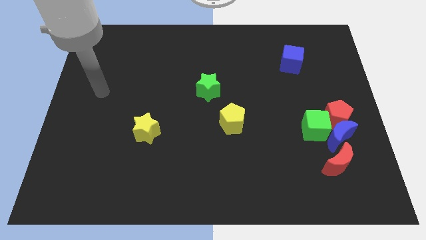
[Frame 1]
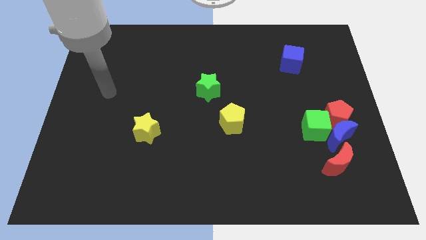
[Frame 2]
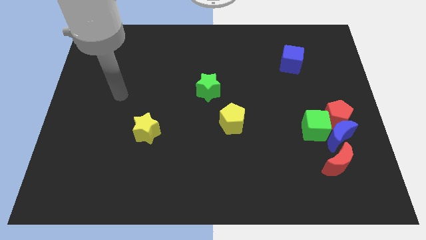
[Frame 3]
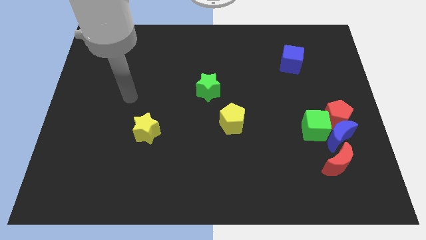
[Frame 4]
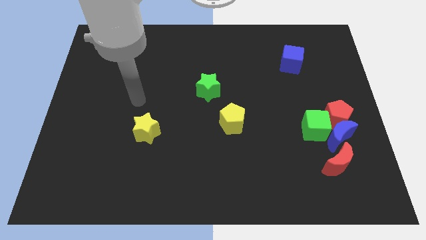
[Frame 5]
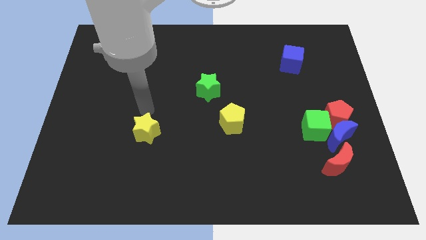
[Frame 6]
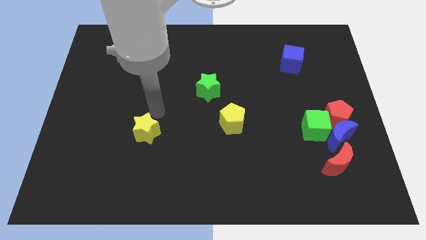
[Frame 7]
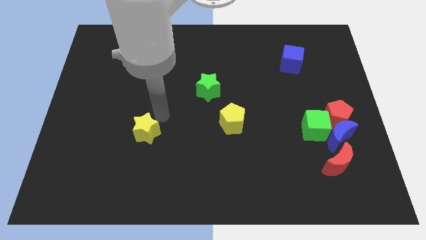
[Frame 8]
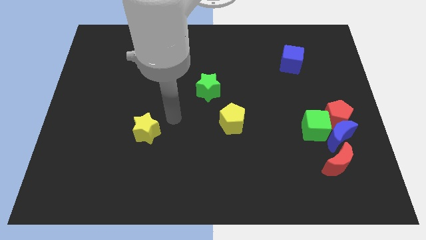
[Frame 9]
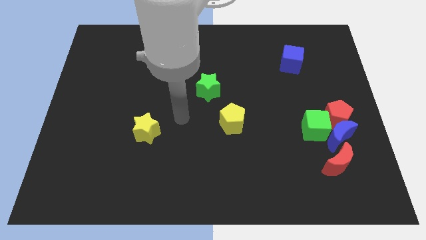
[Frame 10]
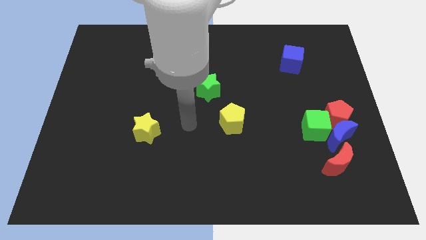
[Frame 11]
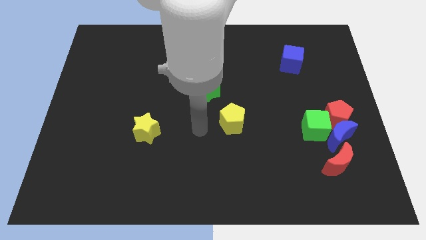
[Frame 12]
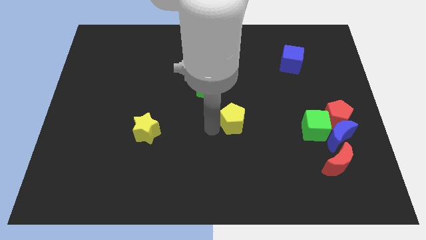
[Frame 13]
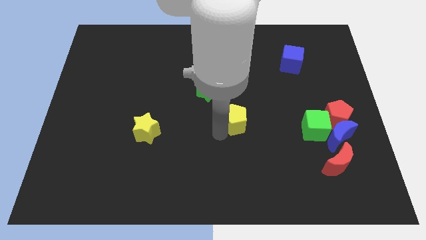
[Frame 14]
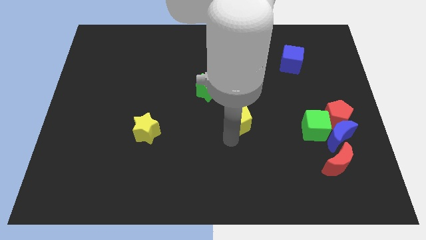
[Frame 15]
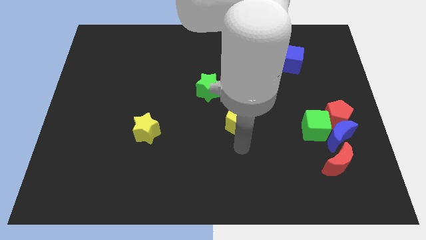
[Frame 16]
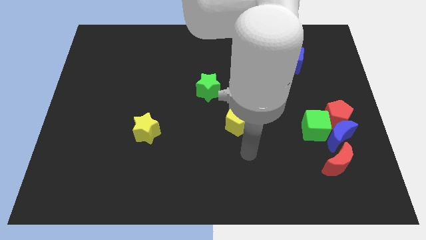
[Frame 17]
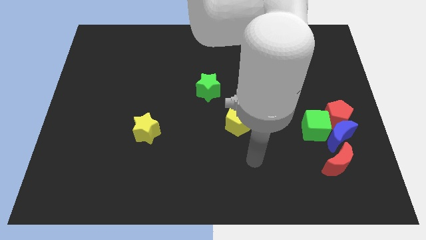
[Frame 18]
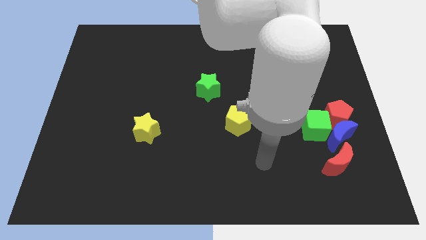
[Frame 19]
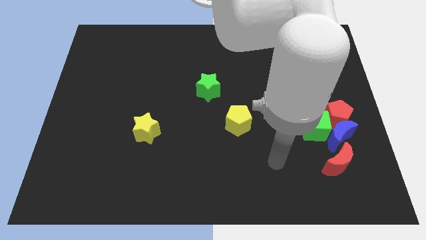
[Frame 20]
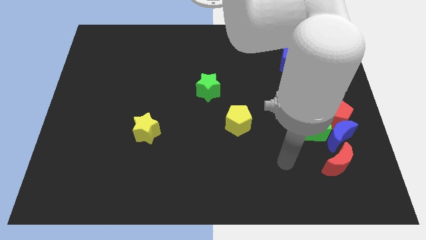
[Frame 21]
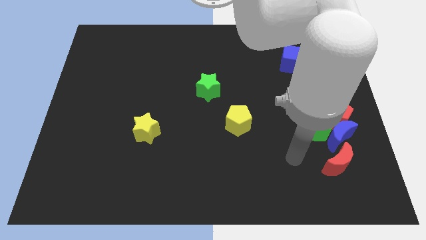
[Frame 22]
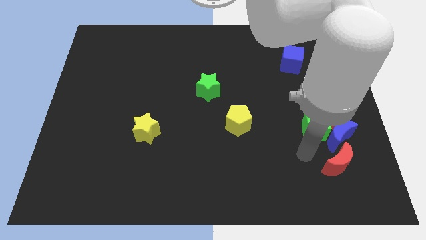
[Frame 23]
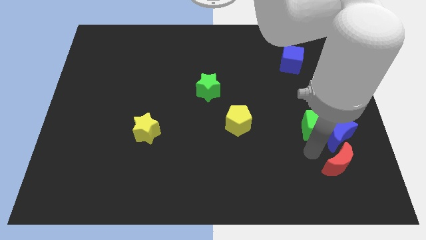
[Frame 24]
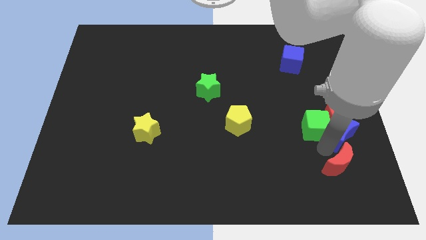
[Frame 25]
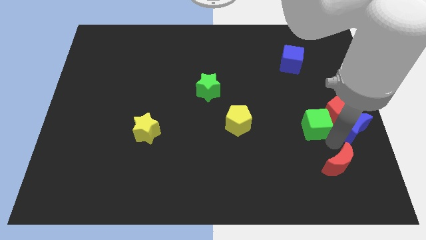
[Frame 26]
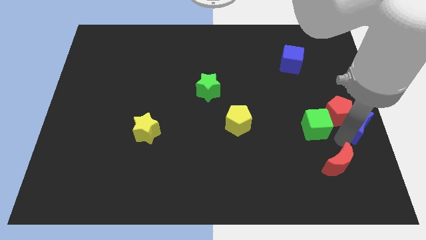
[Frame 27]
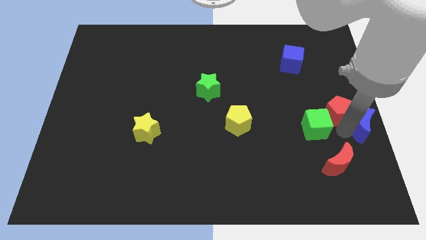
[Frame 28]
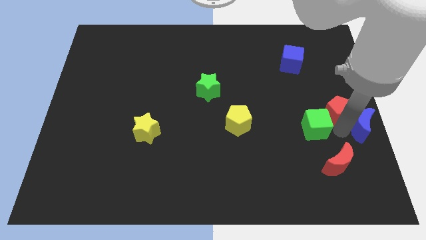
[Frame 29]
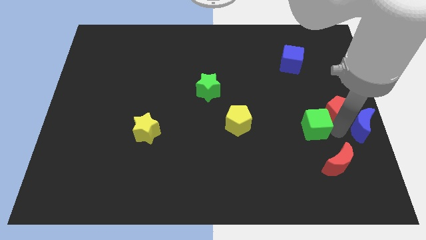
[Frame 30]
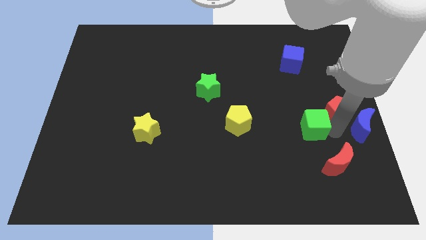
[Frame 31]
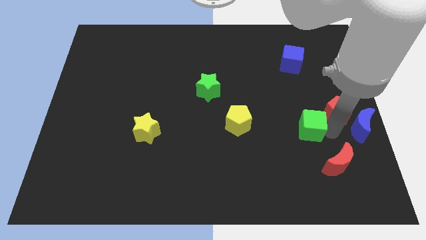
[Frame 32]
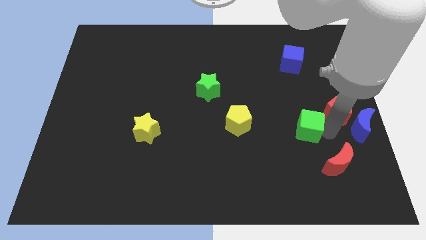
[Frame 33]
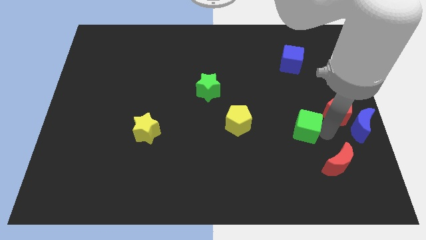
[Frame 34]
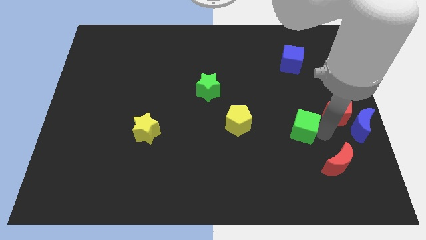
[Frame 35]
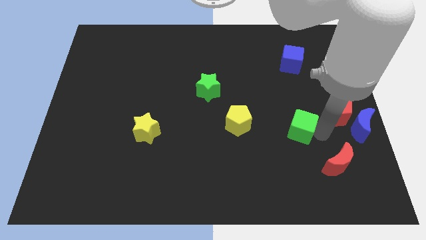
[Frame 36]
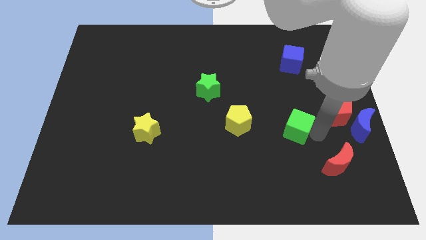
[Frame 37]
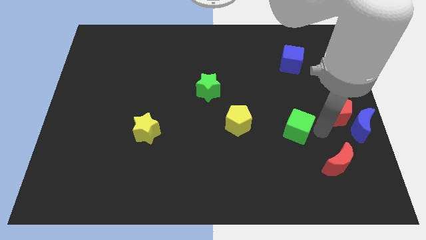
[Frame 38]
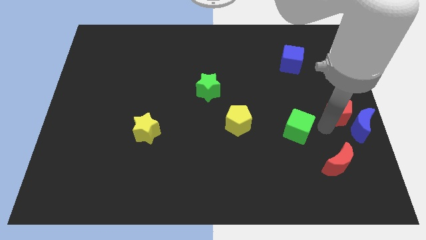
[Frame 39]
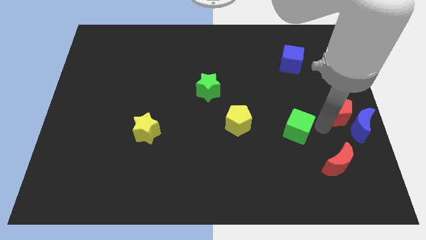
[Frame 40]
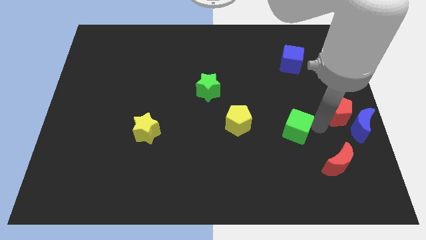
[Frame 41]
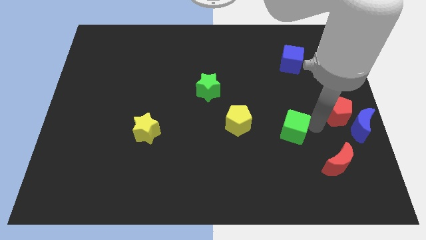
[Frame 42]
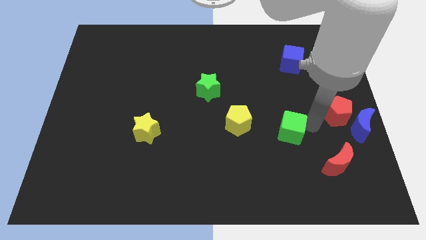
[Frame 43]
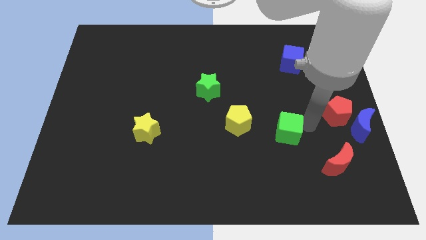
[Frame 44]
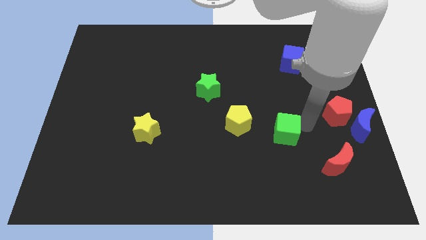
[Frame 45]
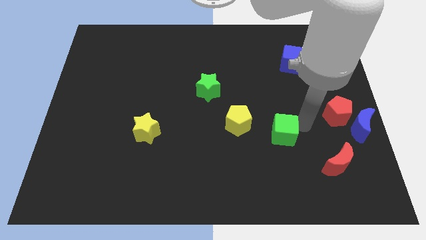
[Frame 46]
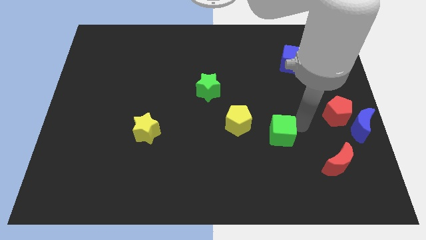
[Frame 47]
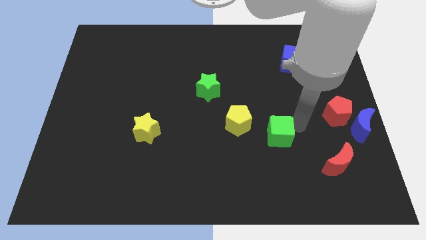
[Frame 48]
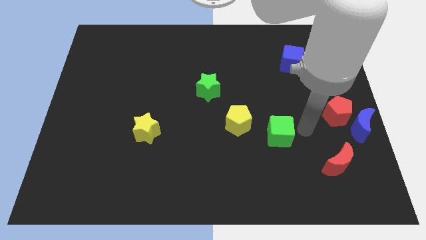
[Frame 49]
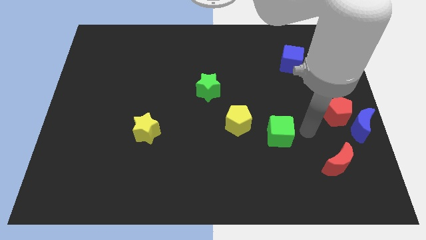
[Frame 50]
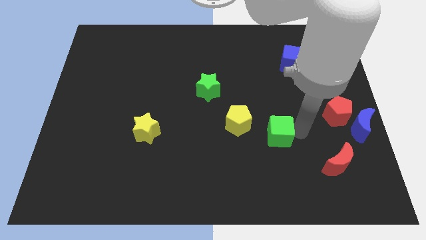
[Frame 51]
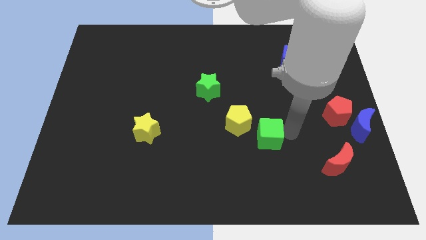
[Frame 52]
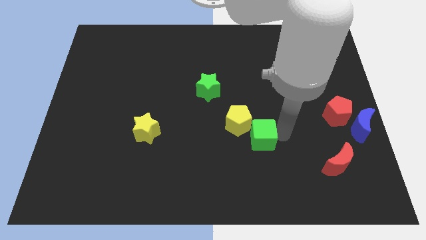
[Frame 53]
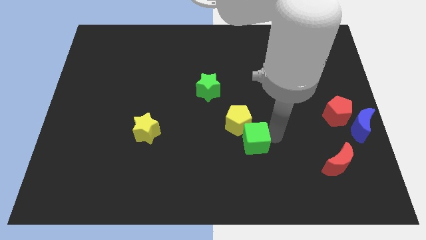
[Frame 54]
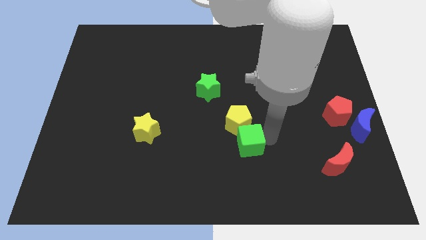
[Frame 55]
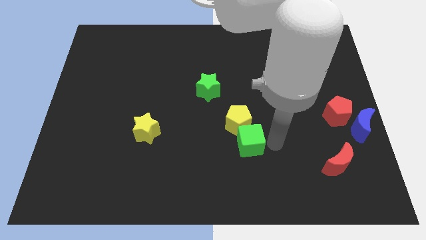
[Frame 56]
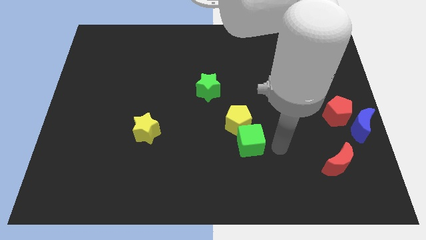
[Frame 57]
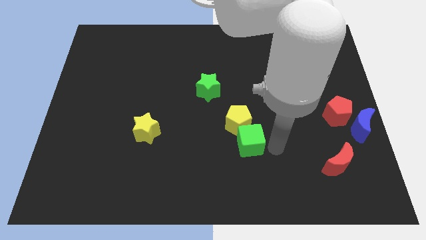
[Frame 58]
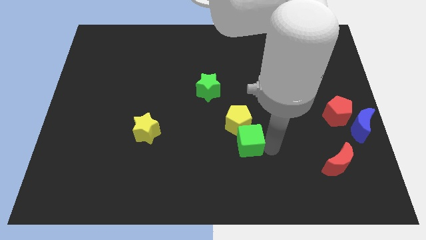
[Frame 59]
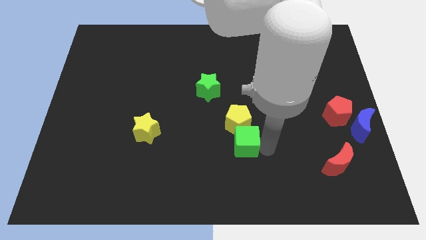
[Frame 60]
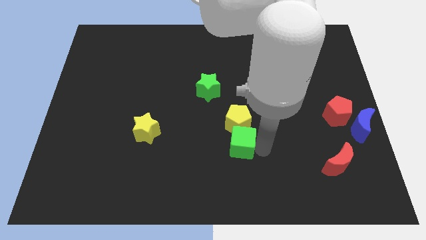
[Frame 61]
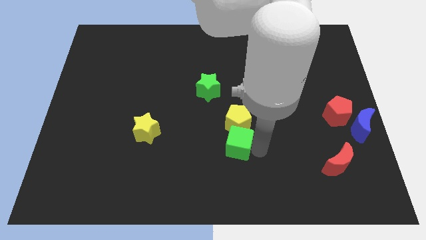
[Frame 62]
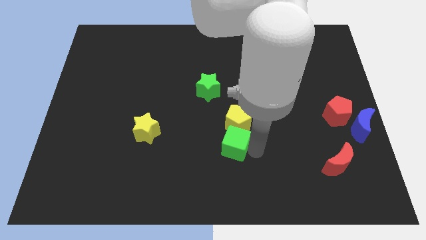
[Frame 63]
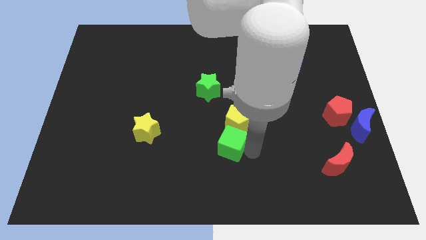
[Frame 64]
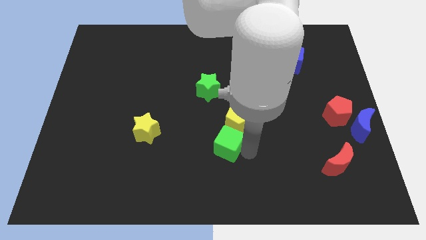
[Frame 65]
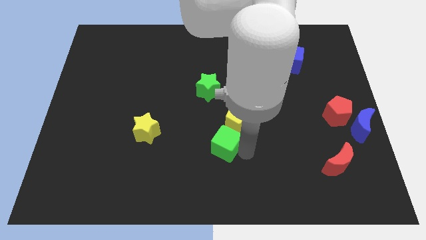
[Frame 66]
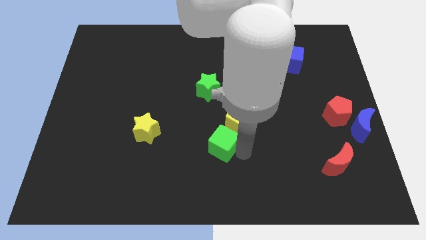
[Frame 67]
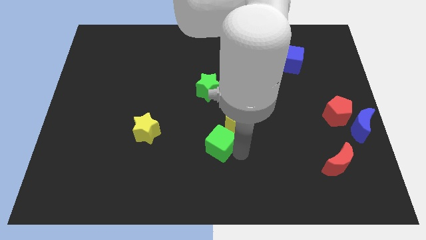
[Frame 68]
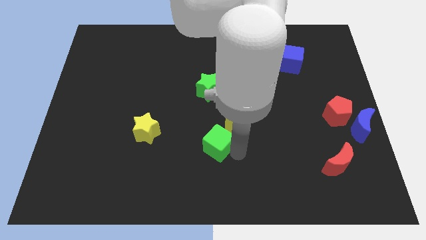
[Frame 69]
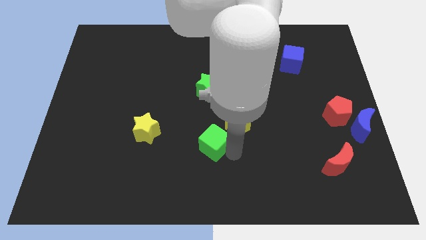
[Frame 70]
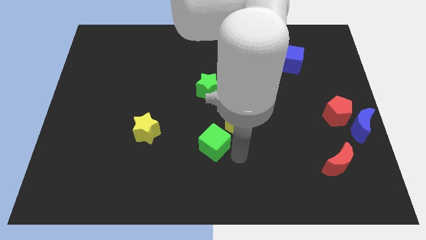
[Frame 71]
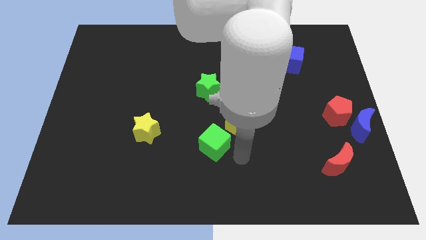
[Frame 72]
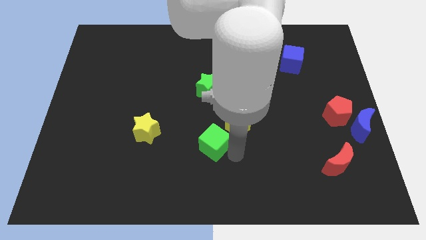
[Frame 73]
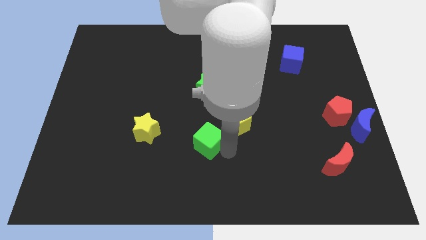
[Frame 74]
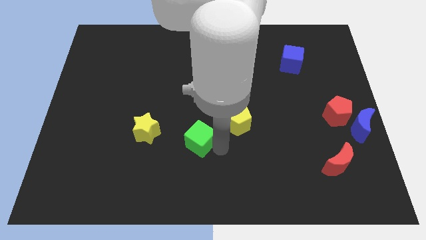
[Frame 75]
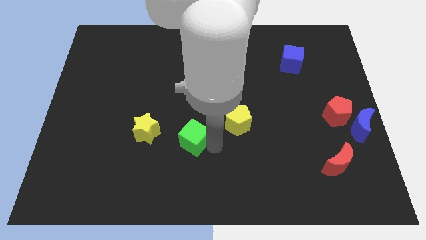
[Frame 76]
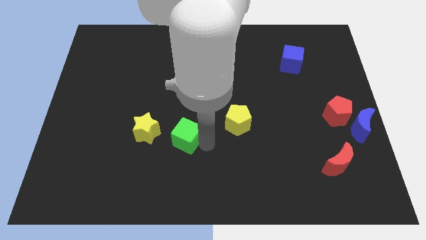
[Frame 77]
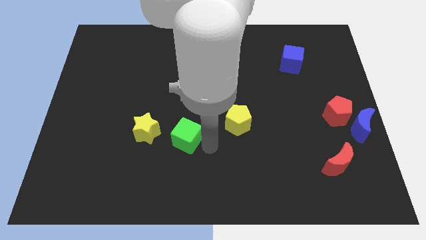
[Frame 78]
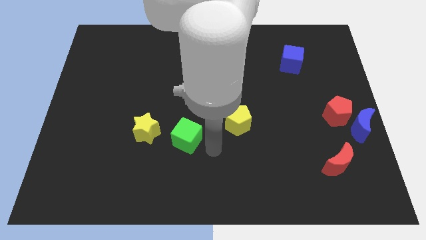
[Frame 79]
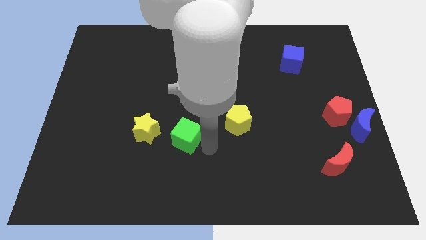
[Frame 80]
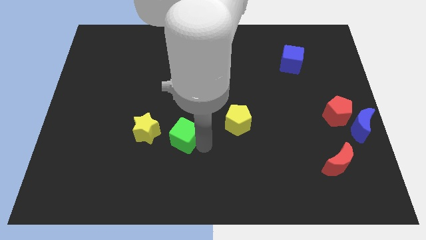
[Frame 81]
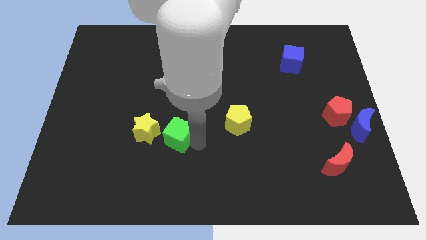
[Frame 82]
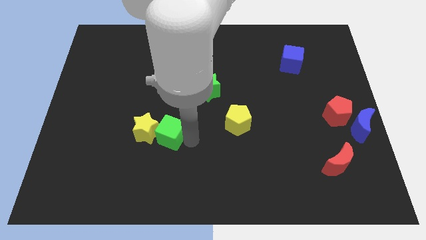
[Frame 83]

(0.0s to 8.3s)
move the green cube close to the yellow star

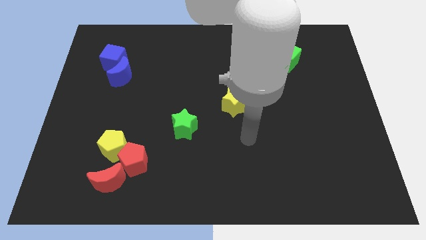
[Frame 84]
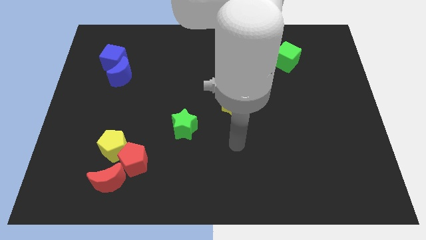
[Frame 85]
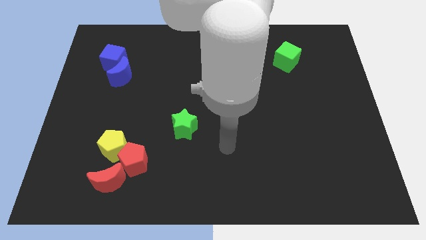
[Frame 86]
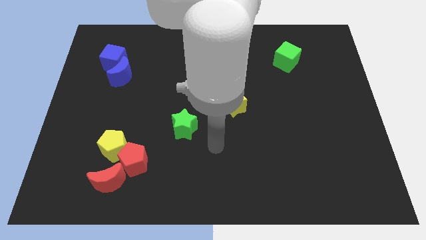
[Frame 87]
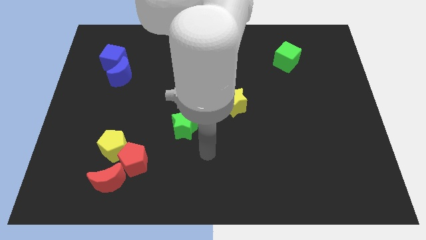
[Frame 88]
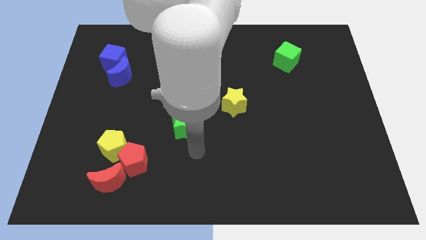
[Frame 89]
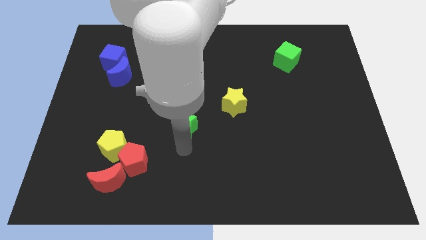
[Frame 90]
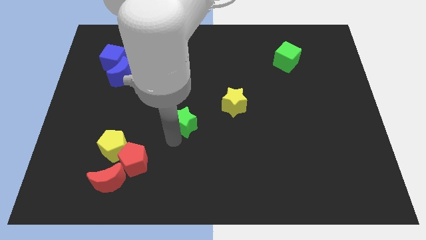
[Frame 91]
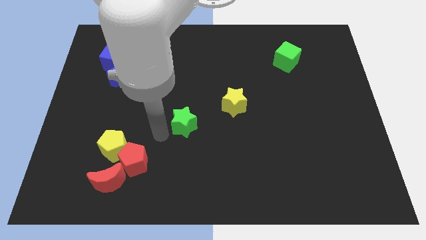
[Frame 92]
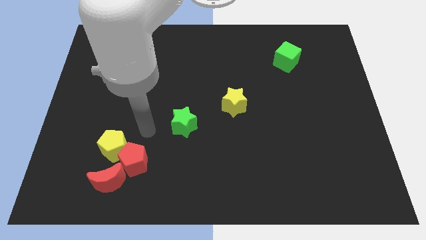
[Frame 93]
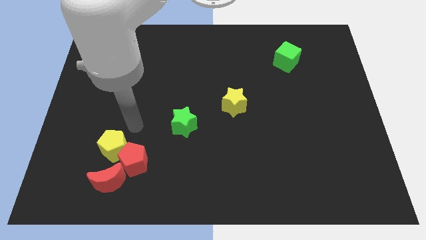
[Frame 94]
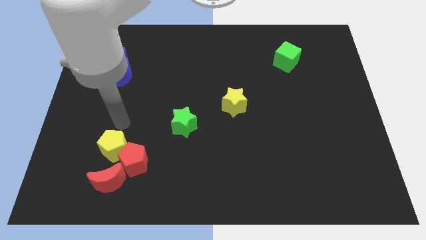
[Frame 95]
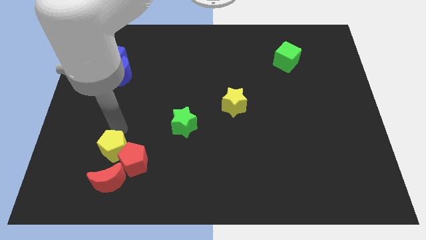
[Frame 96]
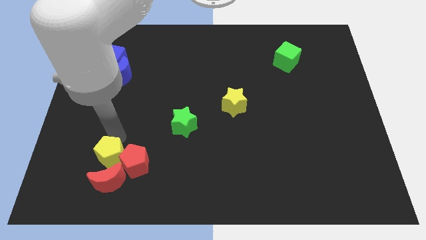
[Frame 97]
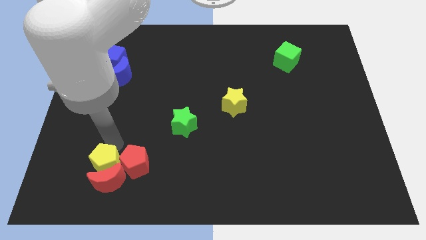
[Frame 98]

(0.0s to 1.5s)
move the yellow pentagon to the red moon
